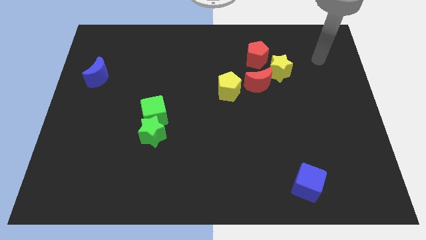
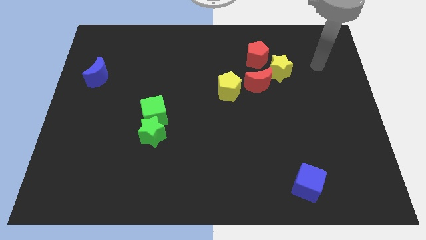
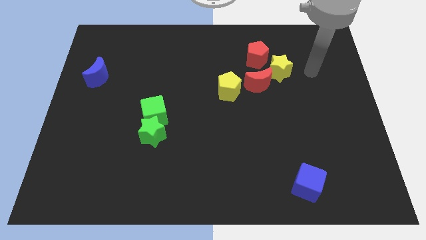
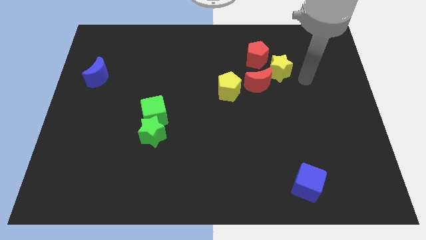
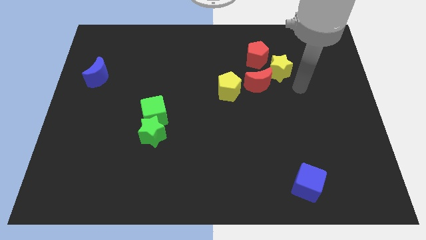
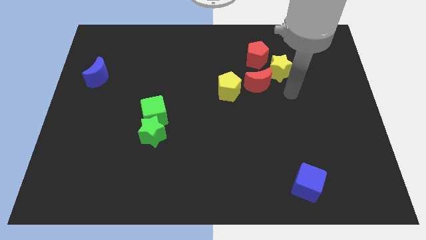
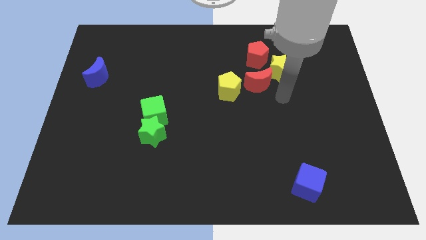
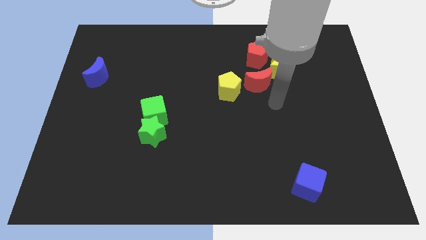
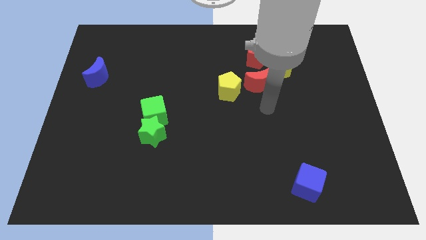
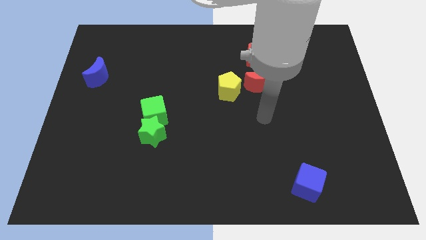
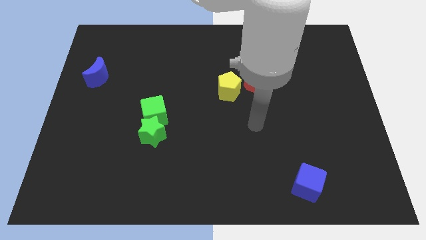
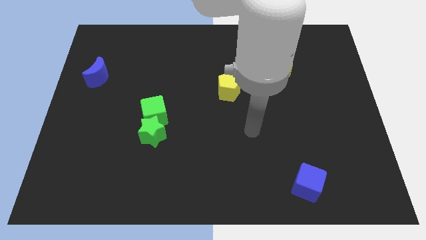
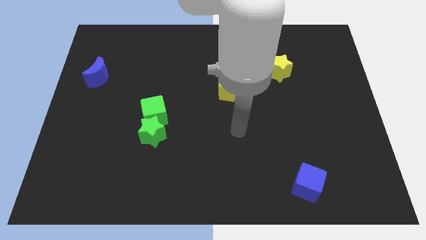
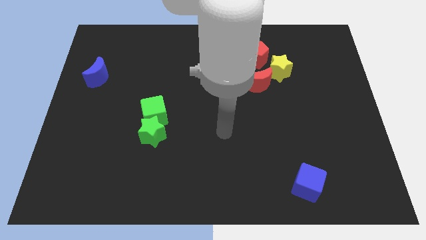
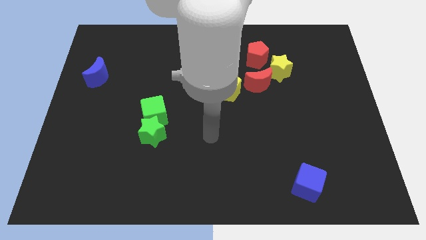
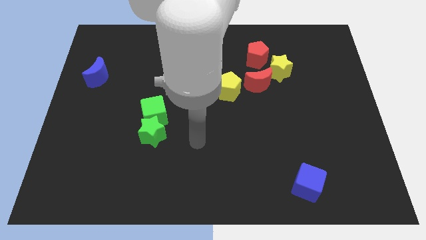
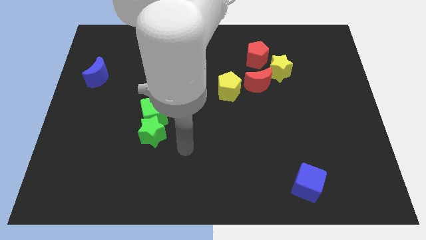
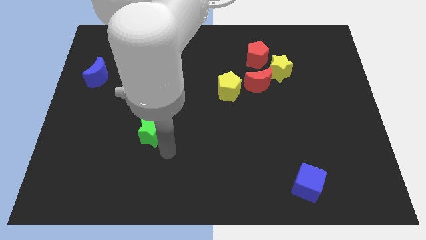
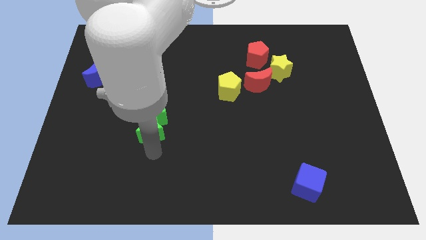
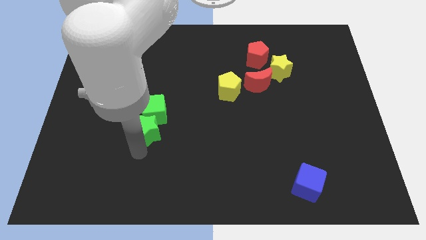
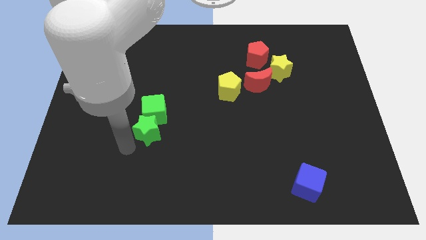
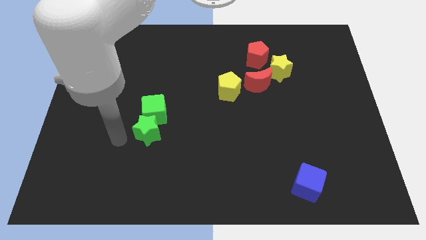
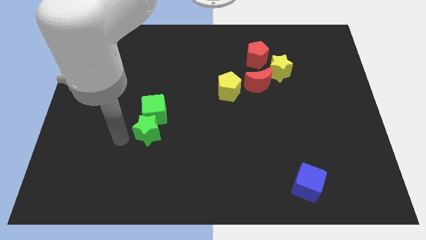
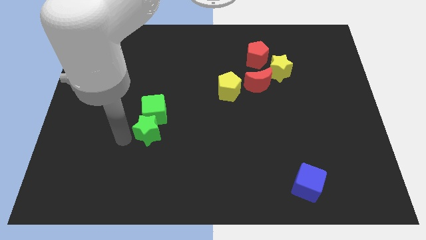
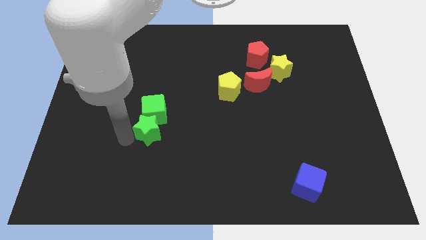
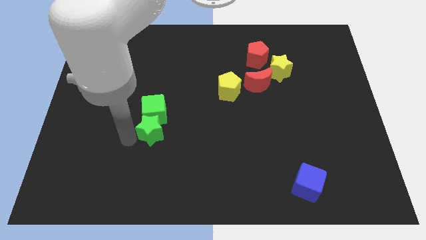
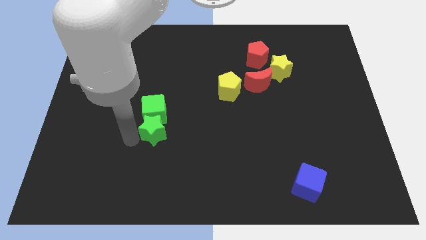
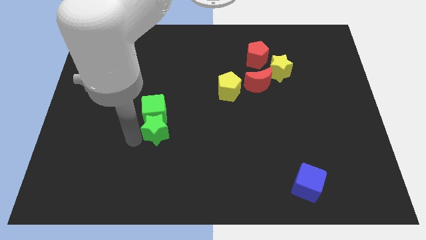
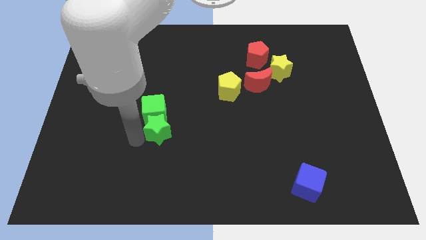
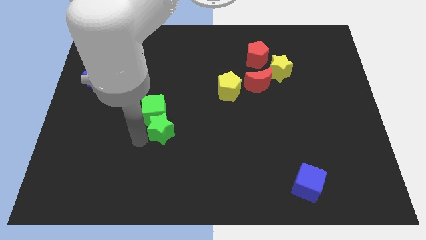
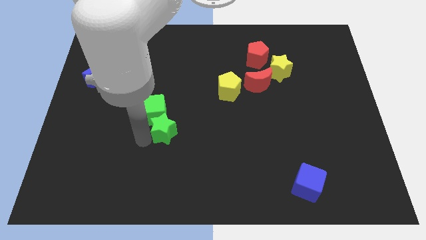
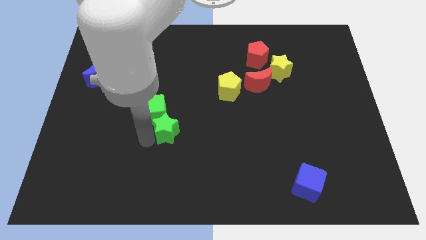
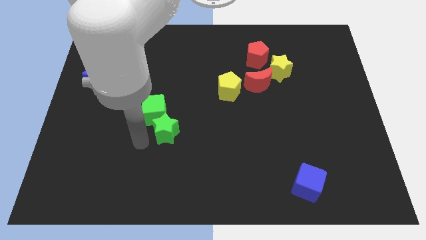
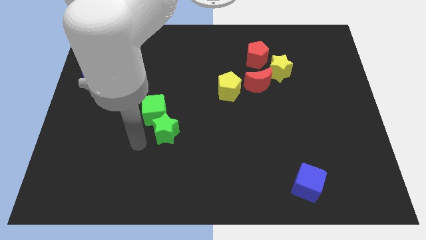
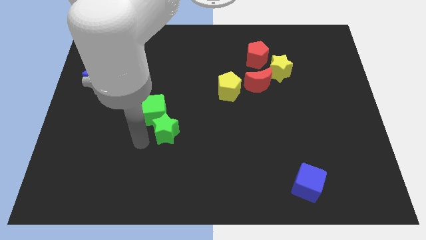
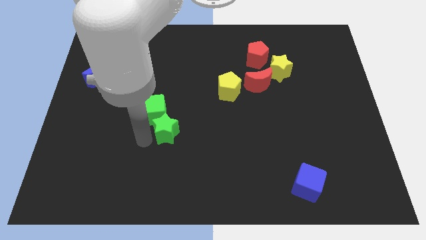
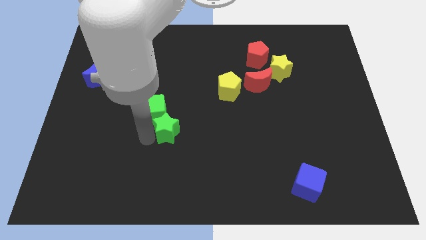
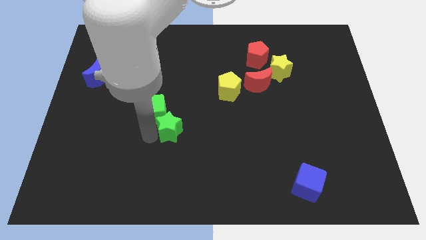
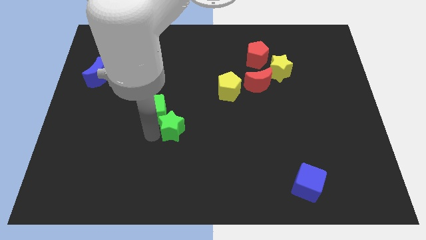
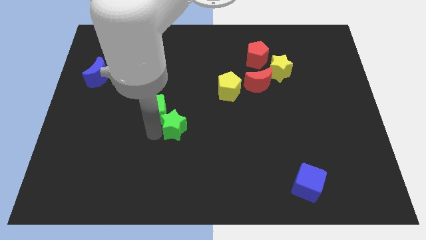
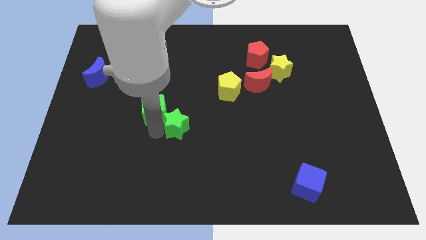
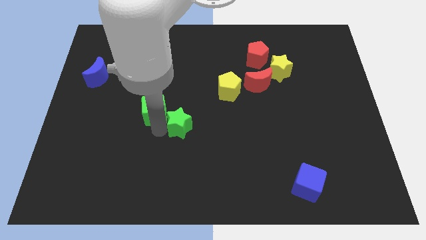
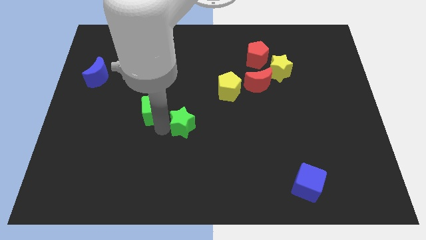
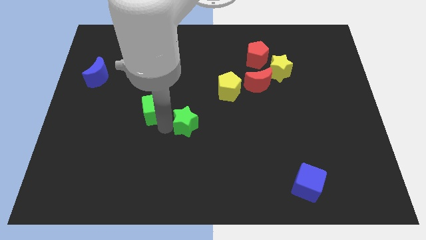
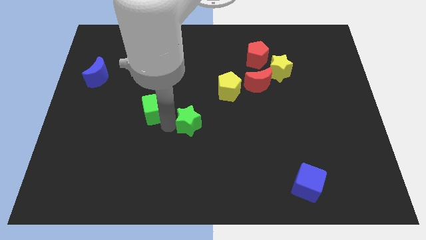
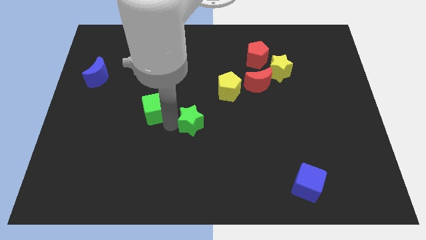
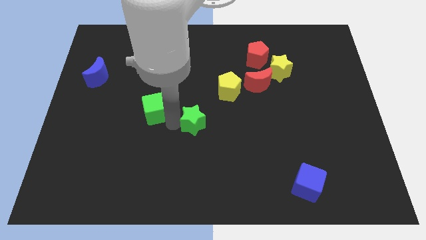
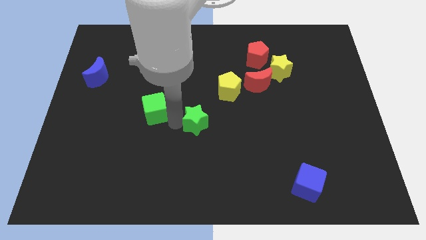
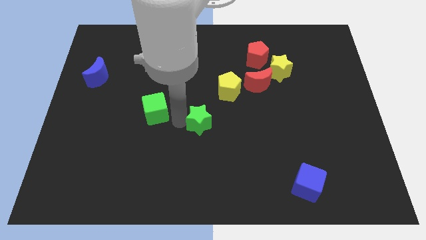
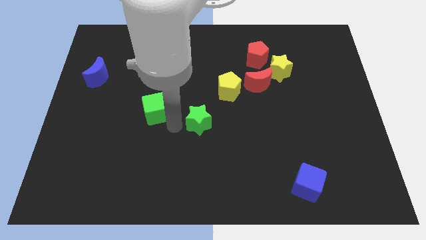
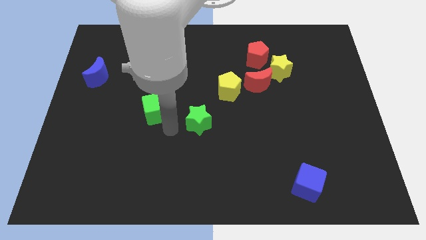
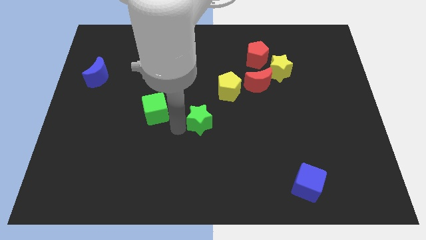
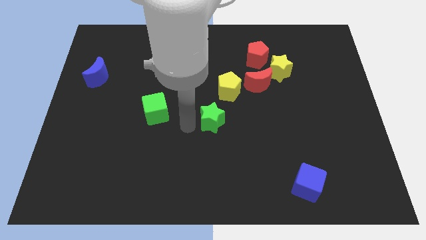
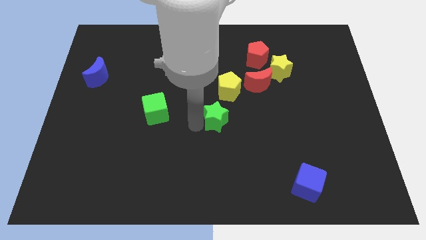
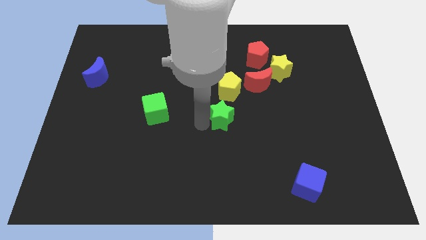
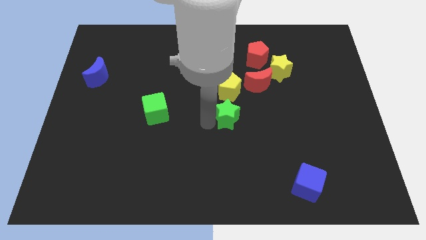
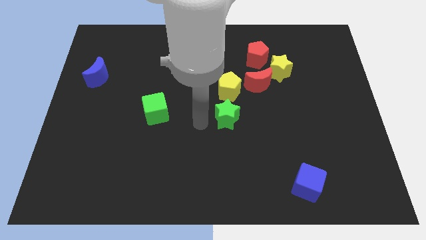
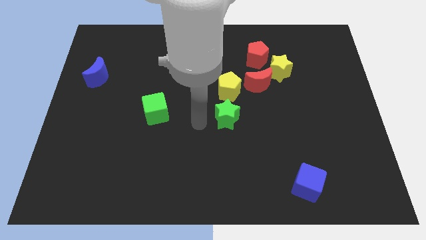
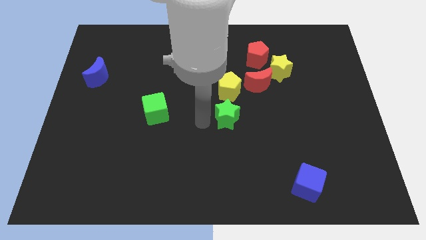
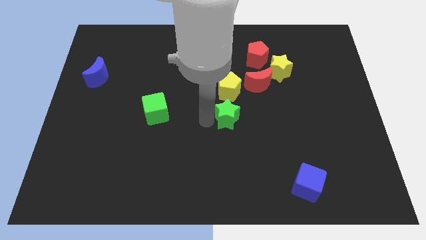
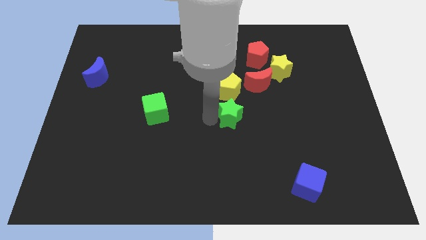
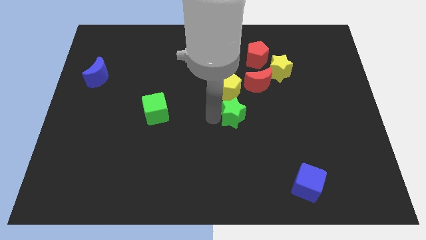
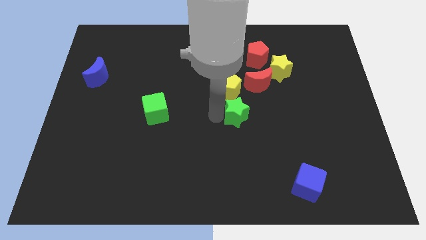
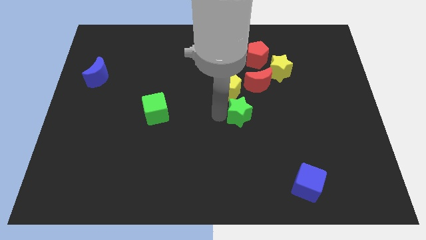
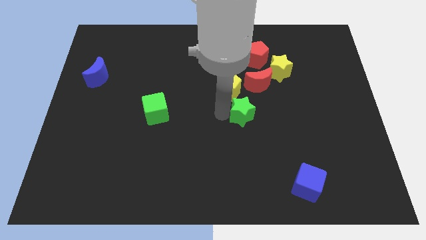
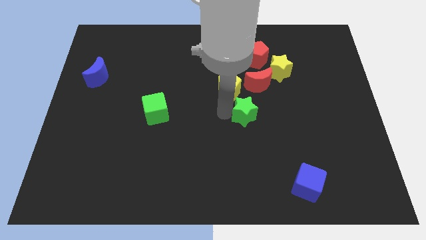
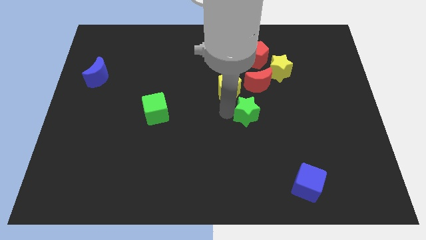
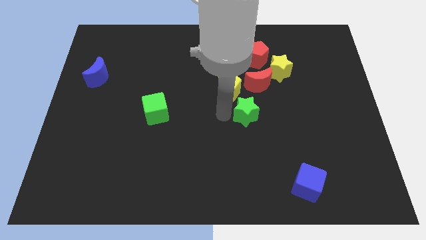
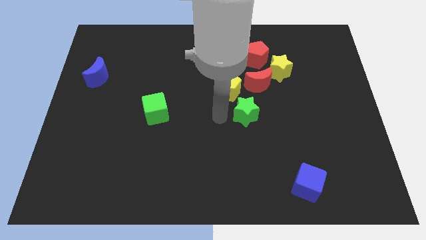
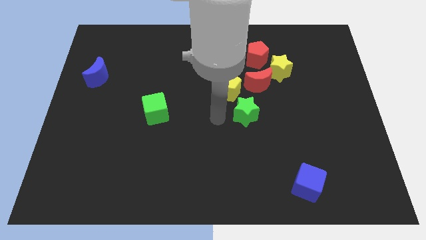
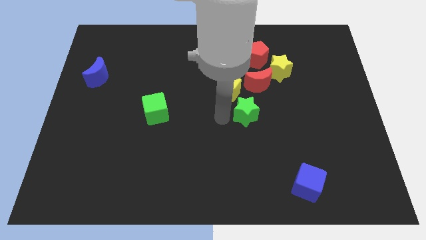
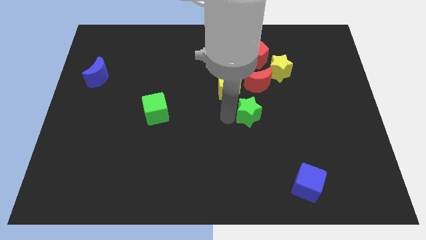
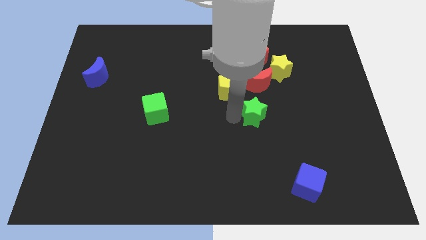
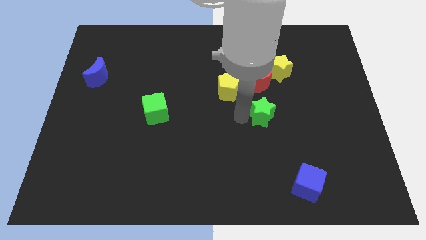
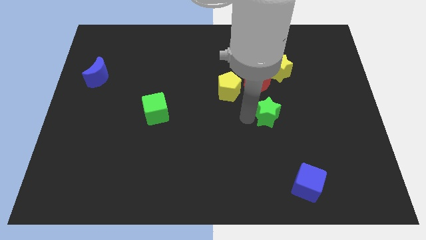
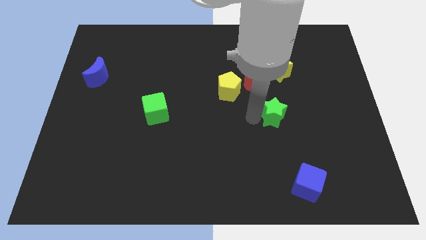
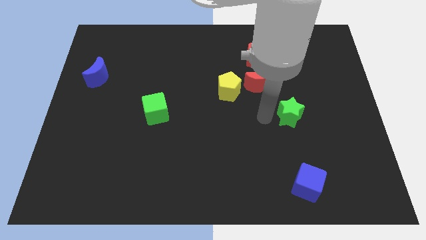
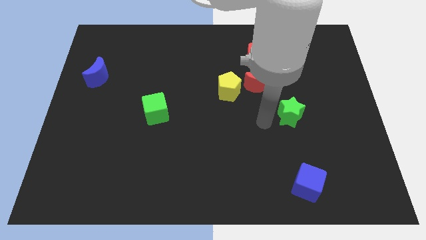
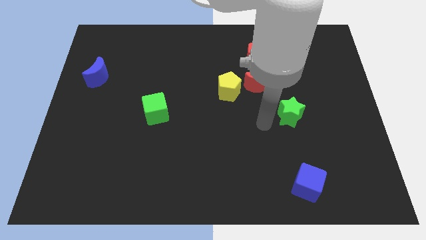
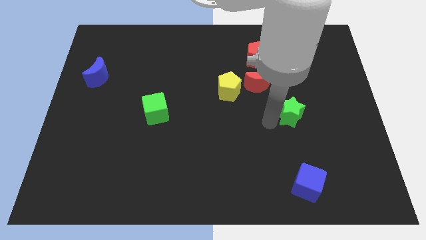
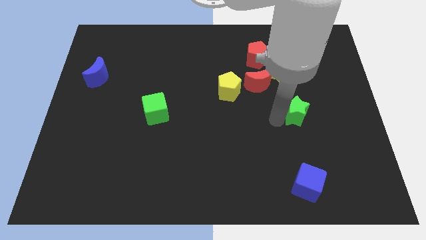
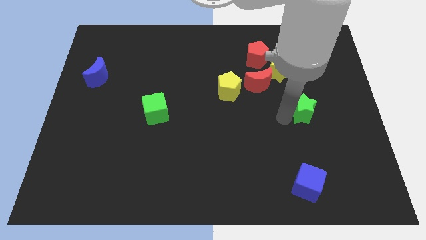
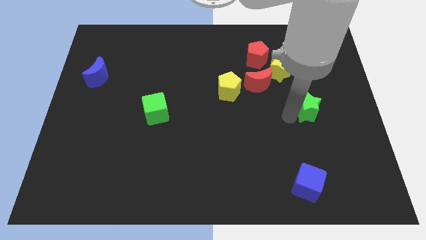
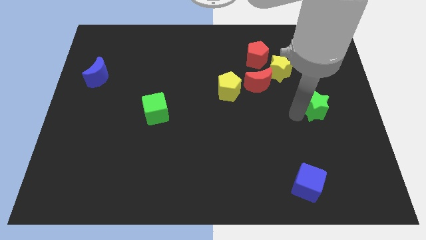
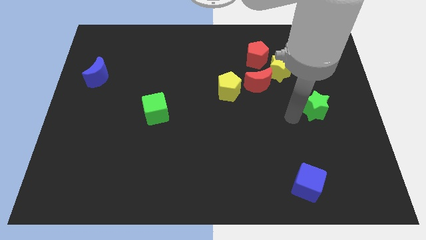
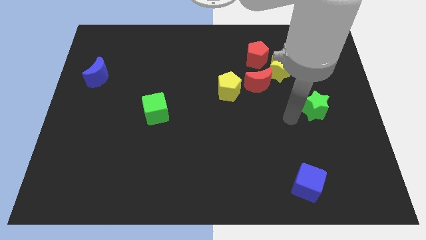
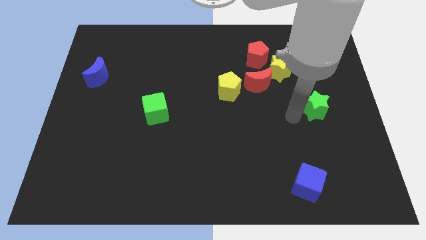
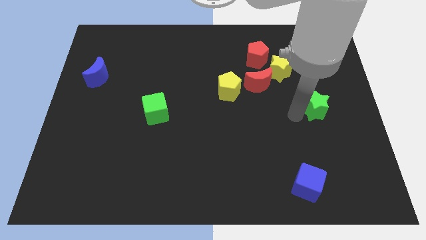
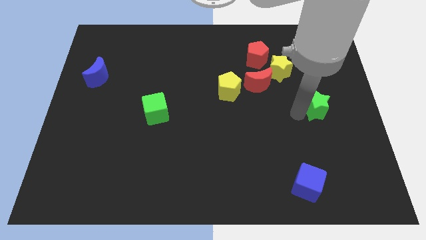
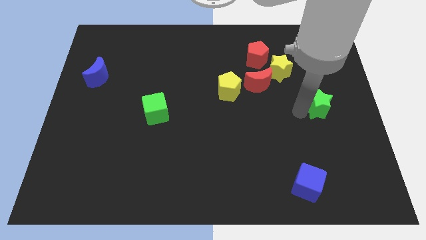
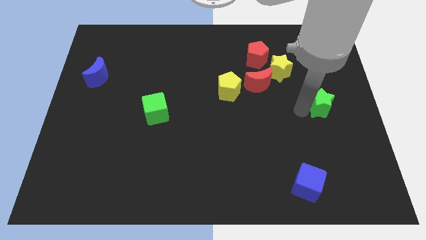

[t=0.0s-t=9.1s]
slide the green star to the center right
